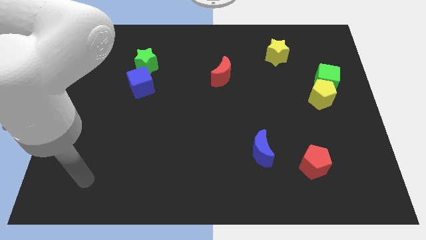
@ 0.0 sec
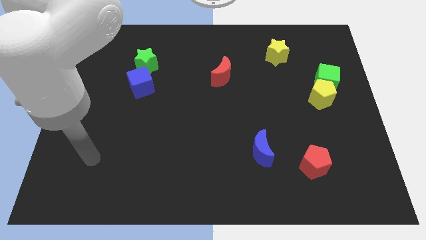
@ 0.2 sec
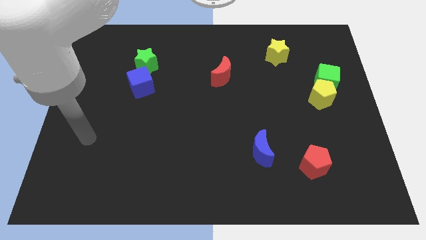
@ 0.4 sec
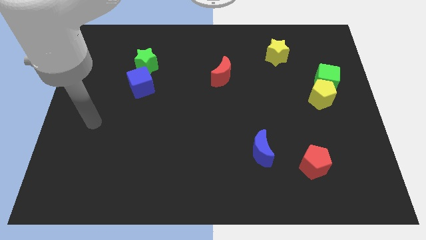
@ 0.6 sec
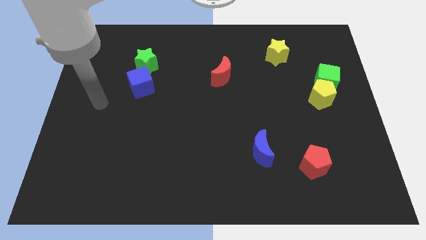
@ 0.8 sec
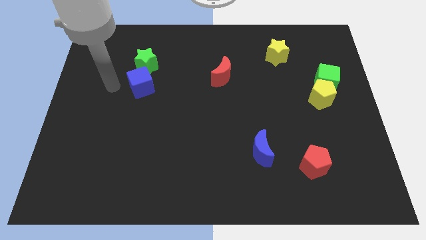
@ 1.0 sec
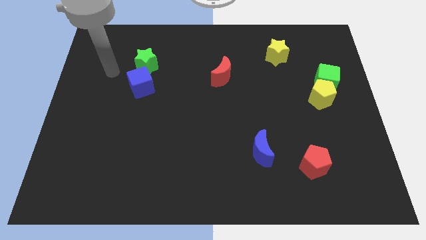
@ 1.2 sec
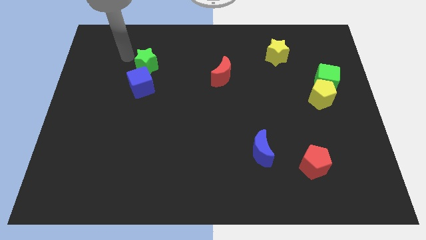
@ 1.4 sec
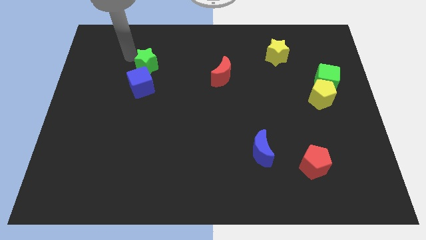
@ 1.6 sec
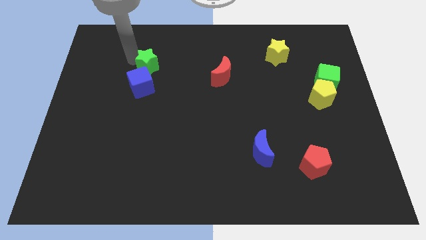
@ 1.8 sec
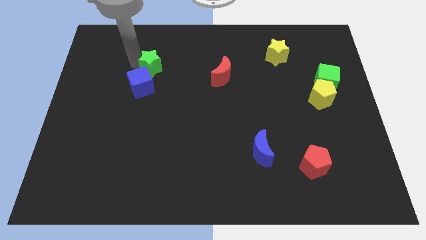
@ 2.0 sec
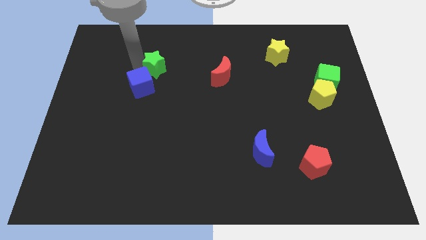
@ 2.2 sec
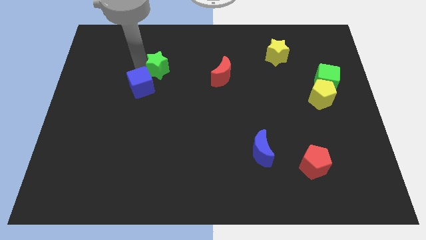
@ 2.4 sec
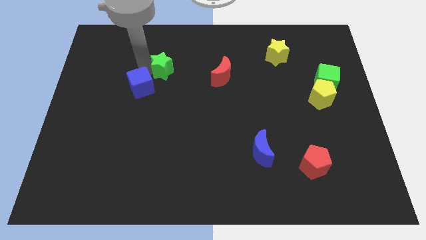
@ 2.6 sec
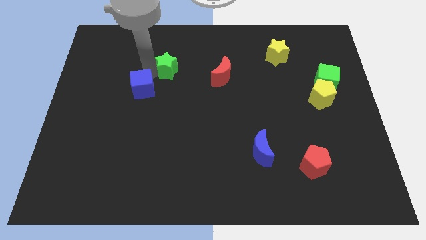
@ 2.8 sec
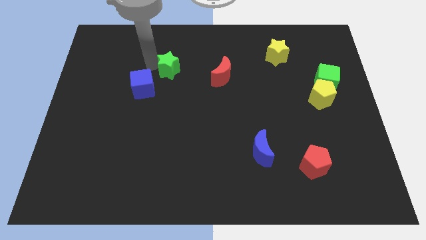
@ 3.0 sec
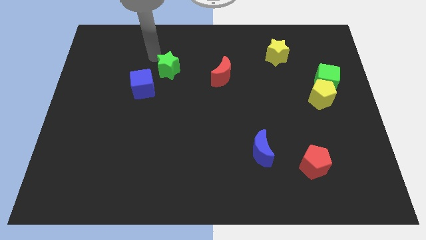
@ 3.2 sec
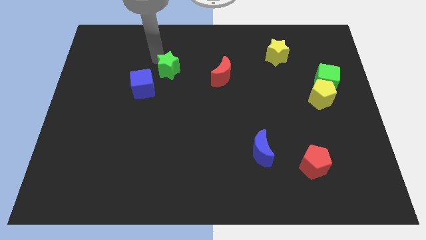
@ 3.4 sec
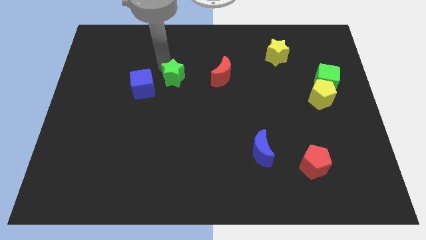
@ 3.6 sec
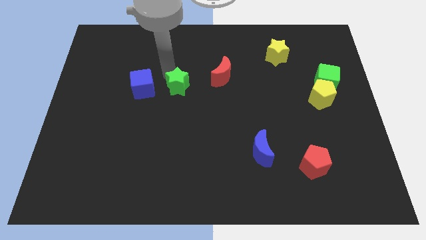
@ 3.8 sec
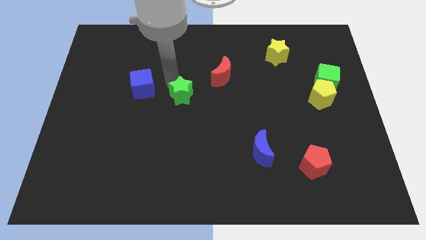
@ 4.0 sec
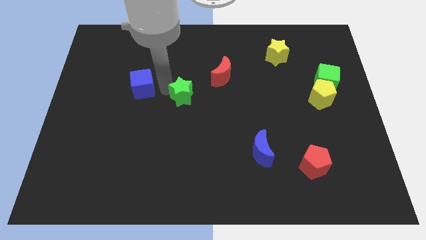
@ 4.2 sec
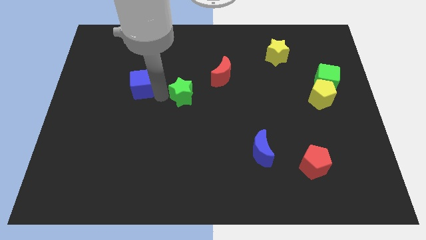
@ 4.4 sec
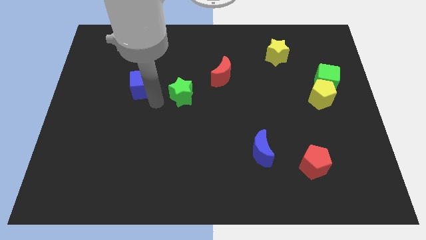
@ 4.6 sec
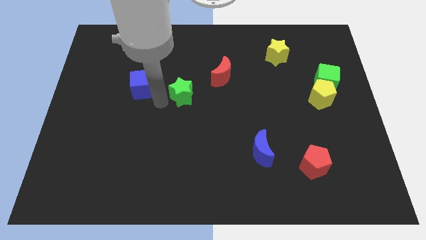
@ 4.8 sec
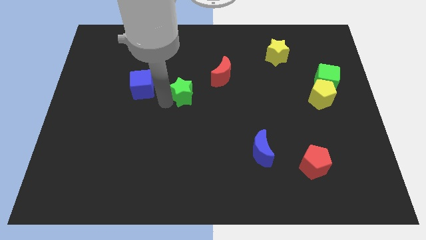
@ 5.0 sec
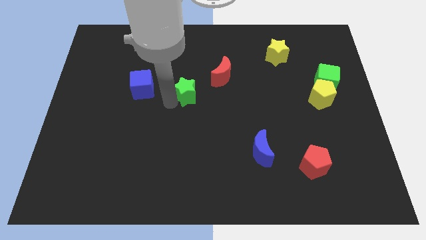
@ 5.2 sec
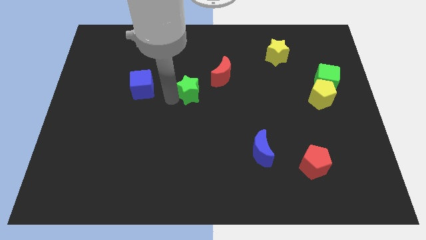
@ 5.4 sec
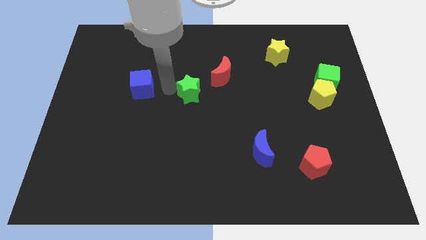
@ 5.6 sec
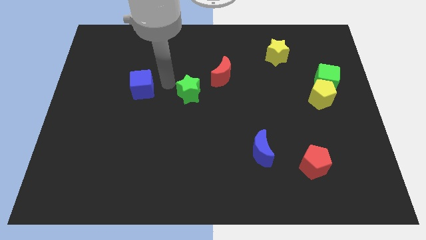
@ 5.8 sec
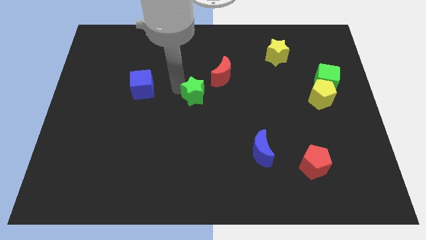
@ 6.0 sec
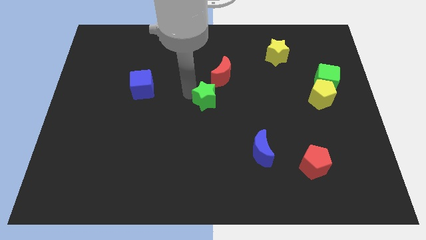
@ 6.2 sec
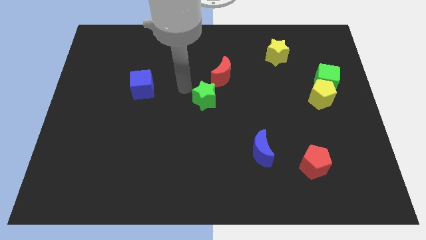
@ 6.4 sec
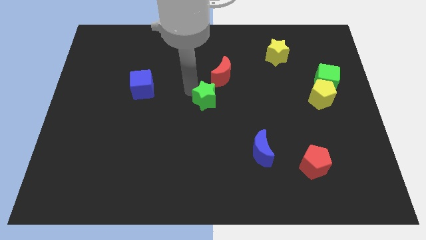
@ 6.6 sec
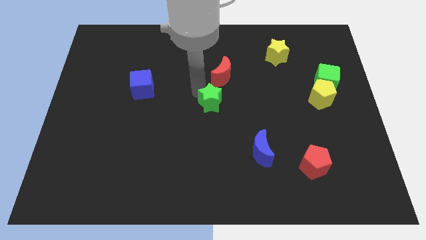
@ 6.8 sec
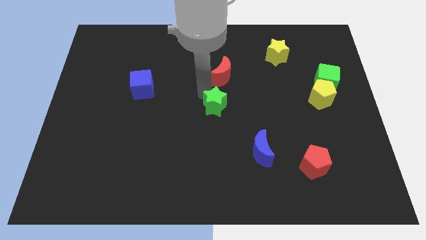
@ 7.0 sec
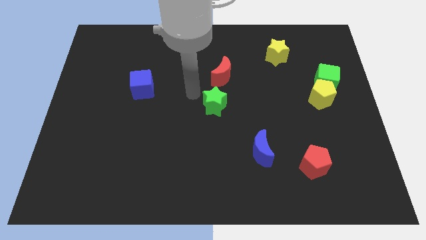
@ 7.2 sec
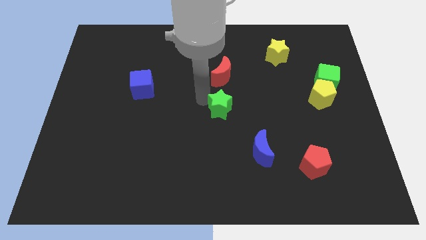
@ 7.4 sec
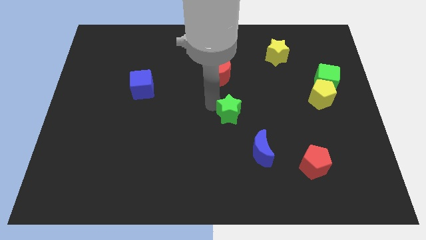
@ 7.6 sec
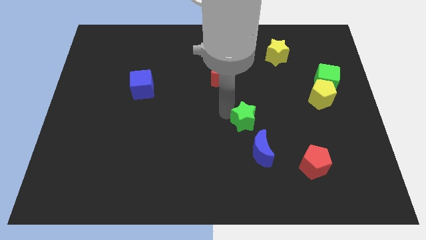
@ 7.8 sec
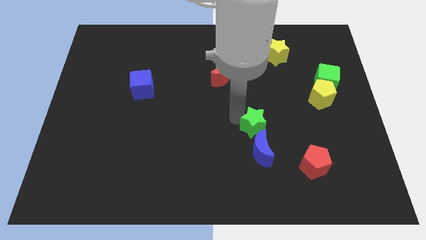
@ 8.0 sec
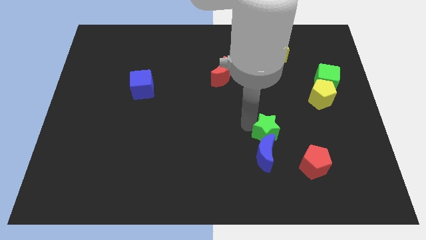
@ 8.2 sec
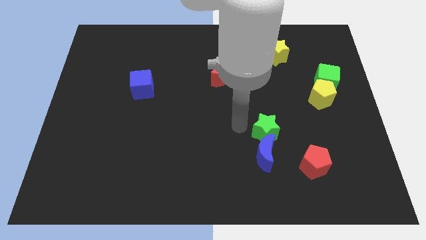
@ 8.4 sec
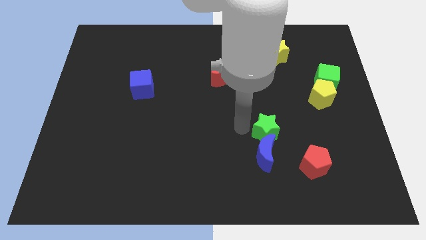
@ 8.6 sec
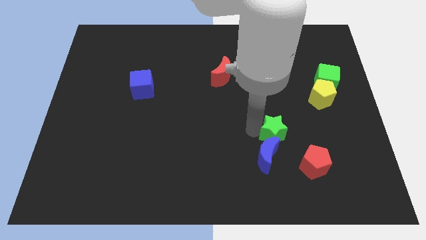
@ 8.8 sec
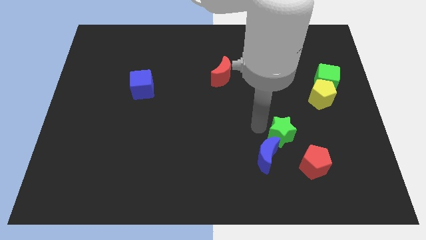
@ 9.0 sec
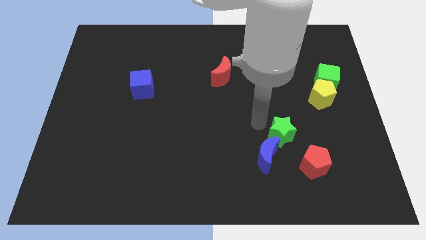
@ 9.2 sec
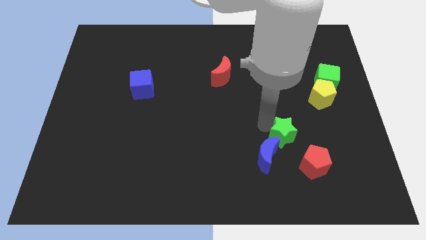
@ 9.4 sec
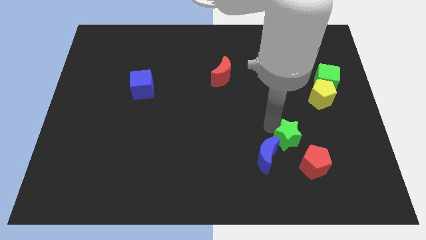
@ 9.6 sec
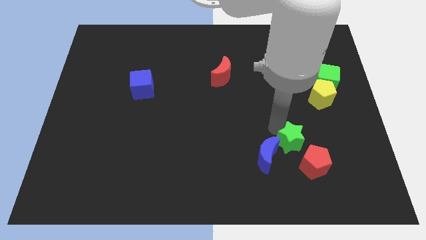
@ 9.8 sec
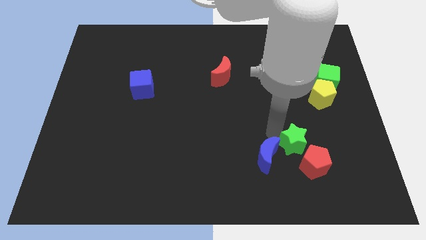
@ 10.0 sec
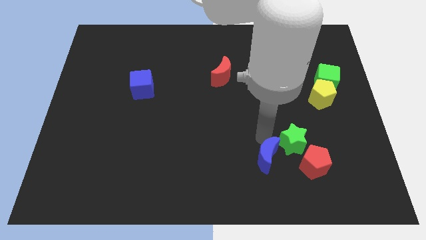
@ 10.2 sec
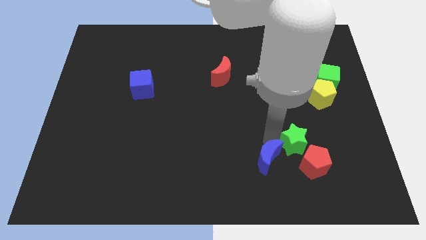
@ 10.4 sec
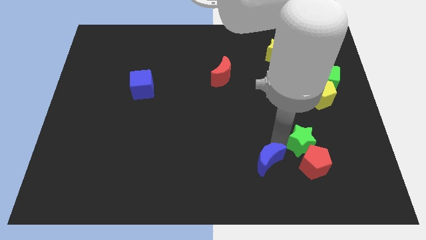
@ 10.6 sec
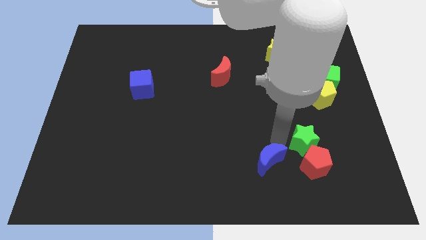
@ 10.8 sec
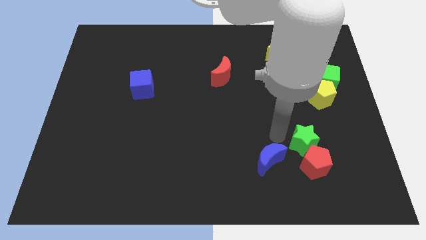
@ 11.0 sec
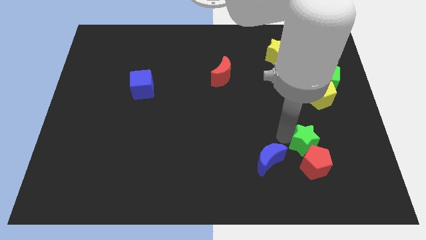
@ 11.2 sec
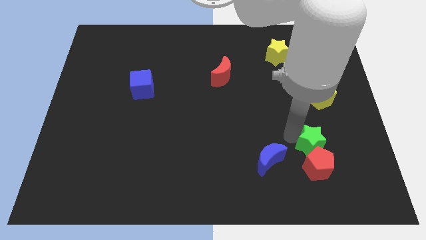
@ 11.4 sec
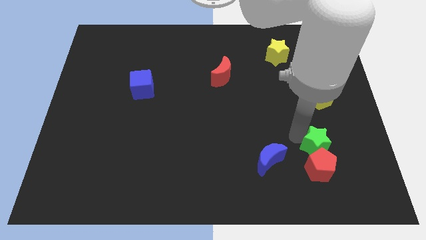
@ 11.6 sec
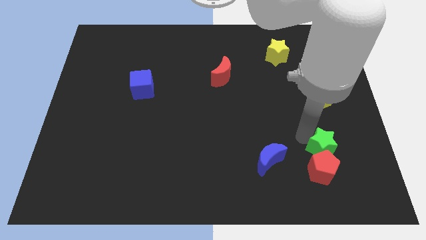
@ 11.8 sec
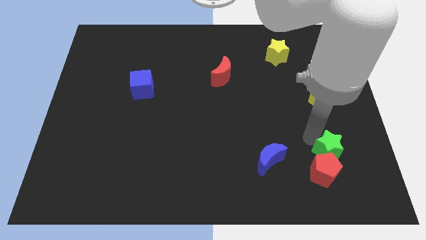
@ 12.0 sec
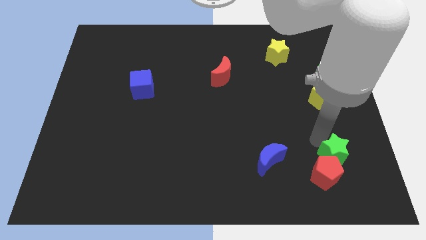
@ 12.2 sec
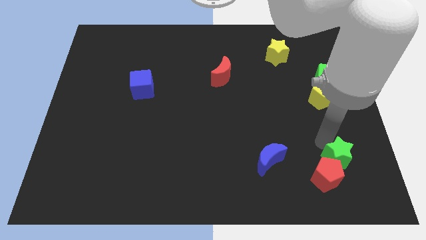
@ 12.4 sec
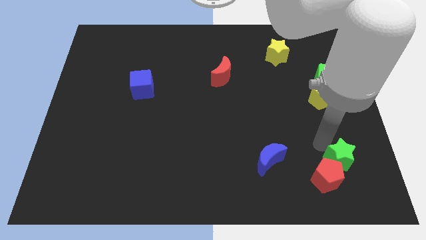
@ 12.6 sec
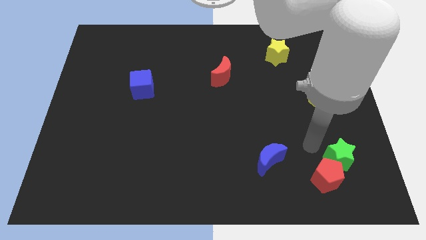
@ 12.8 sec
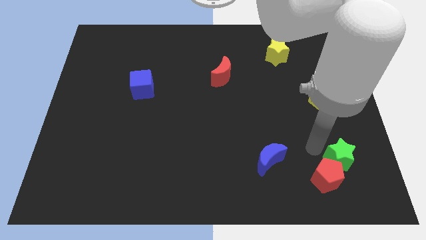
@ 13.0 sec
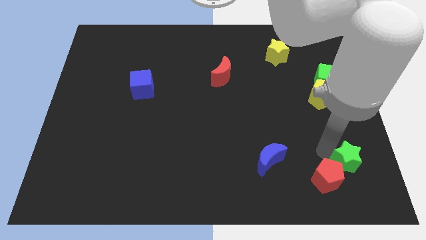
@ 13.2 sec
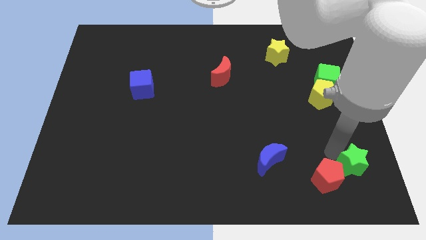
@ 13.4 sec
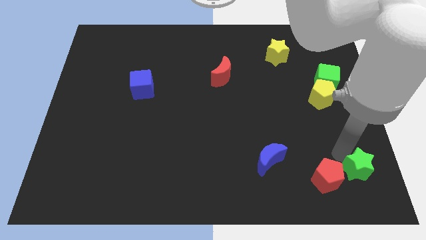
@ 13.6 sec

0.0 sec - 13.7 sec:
put the green star to the bottom right
